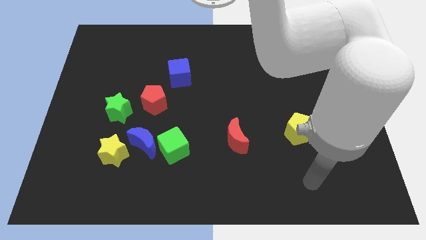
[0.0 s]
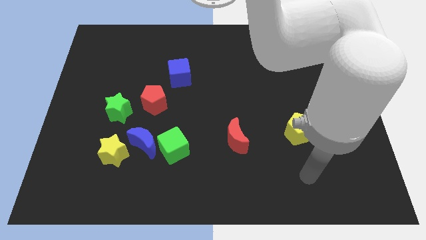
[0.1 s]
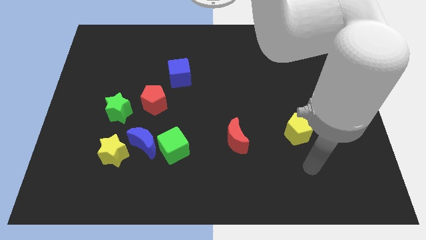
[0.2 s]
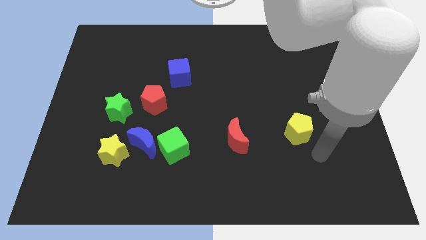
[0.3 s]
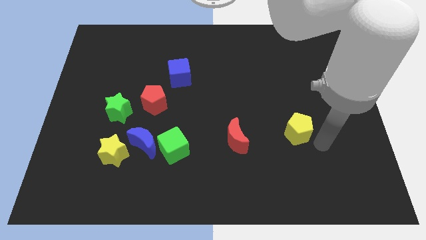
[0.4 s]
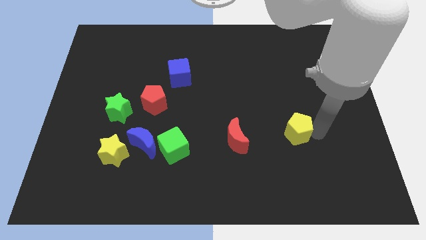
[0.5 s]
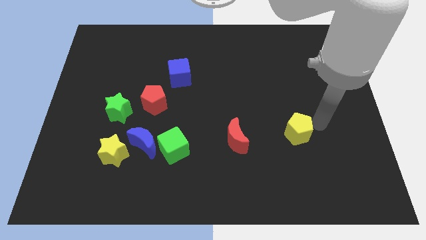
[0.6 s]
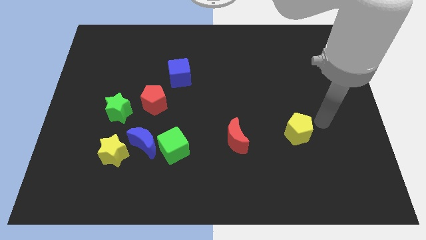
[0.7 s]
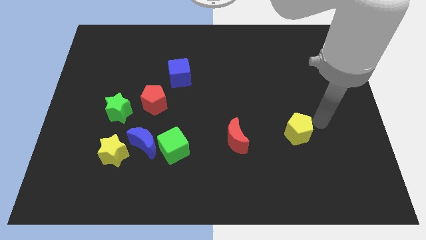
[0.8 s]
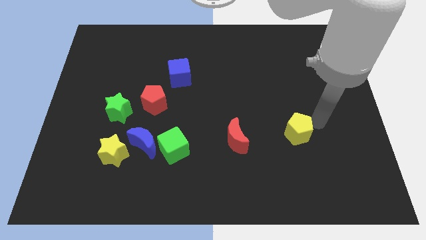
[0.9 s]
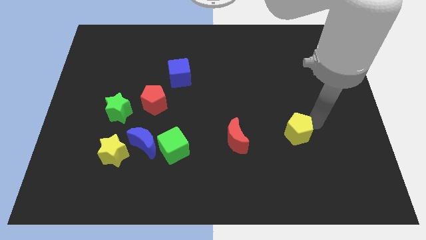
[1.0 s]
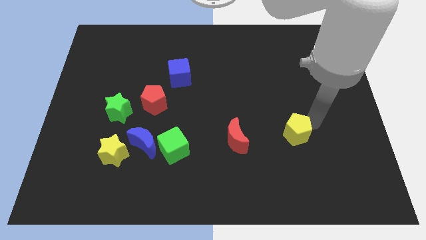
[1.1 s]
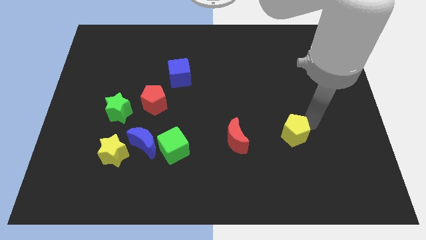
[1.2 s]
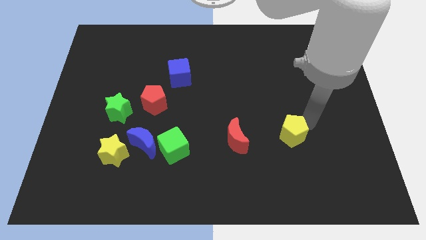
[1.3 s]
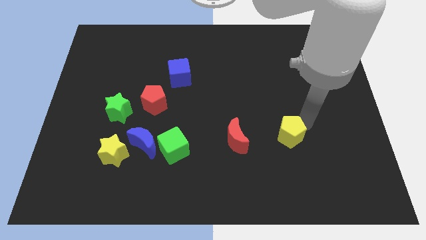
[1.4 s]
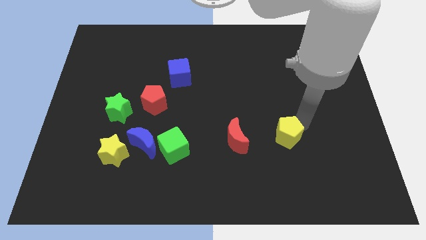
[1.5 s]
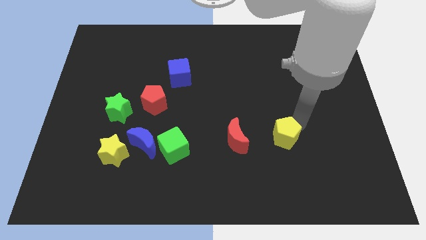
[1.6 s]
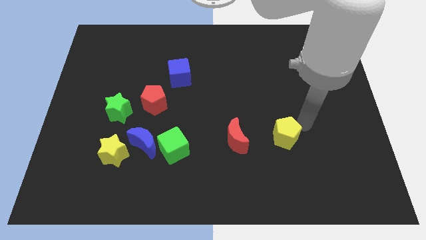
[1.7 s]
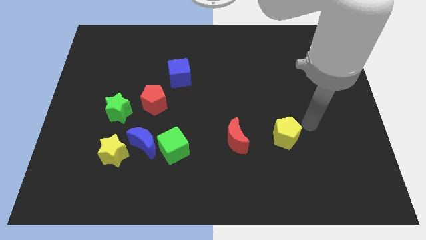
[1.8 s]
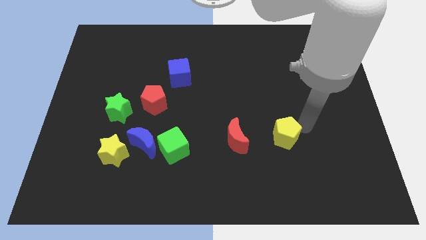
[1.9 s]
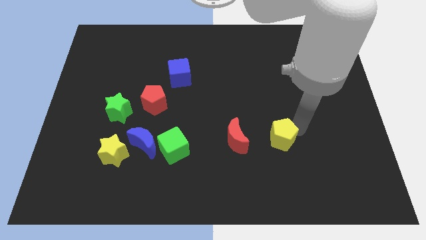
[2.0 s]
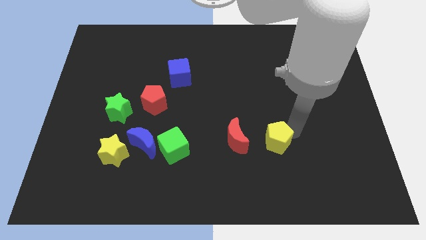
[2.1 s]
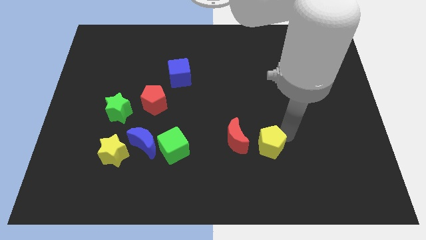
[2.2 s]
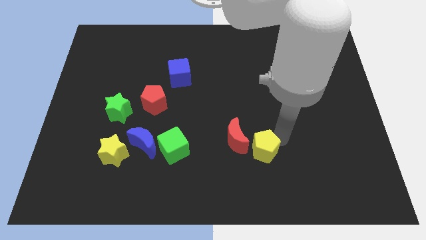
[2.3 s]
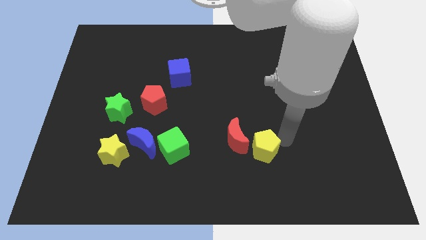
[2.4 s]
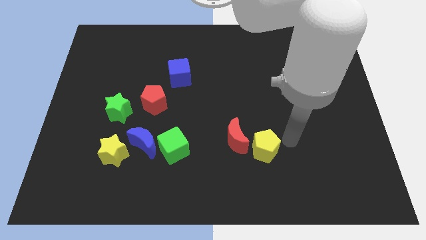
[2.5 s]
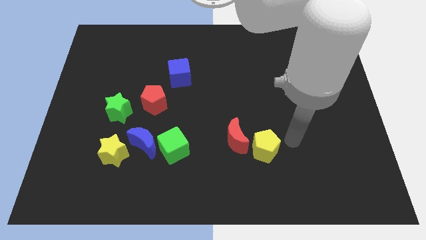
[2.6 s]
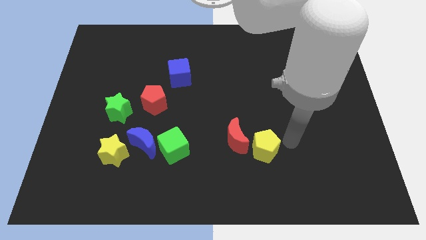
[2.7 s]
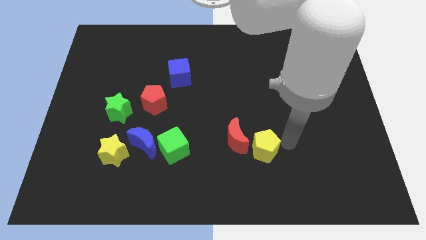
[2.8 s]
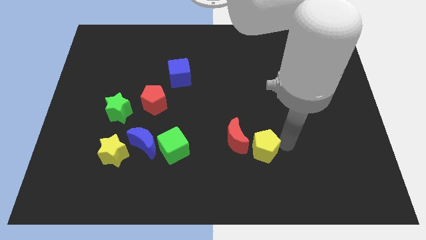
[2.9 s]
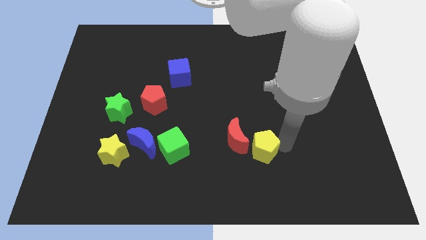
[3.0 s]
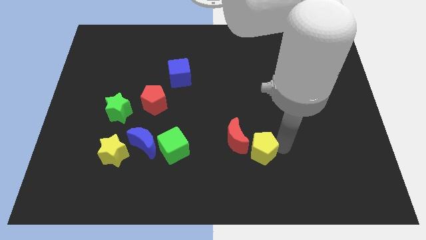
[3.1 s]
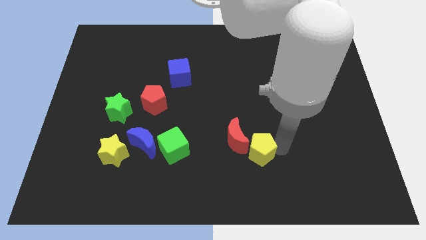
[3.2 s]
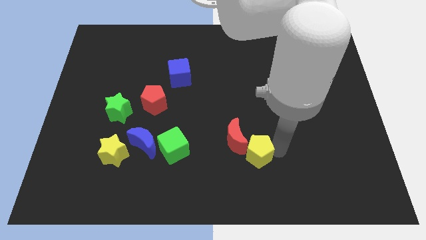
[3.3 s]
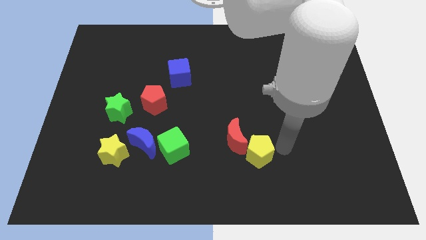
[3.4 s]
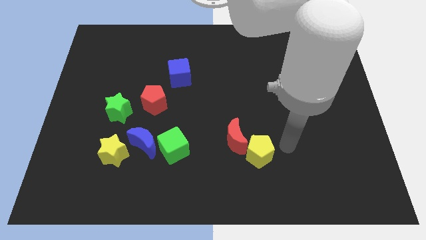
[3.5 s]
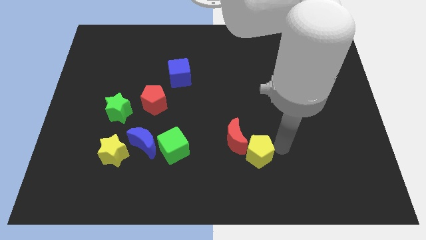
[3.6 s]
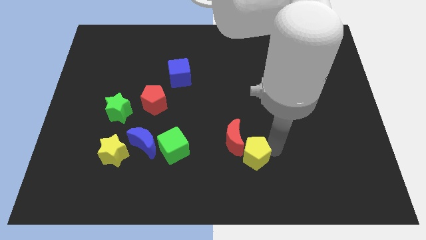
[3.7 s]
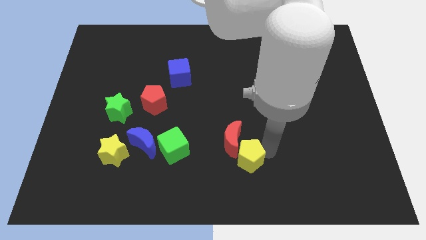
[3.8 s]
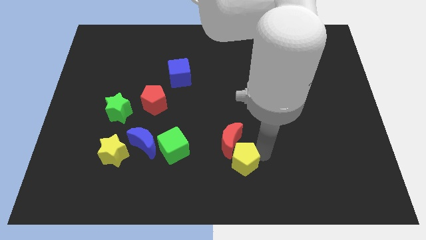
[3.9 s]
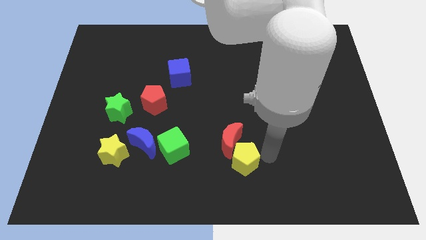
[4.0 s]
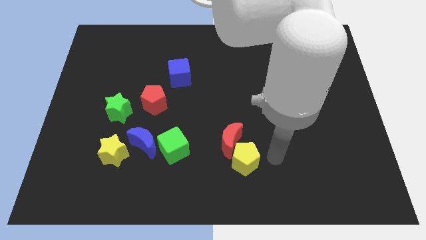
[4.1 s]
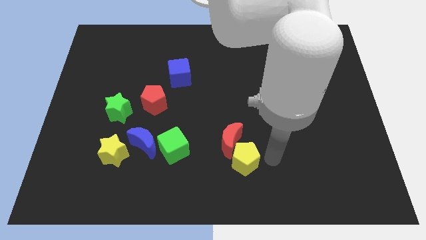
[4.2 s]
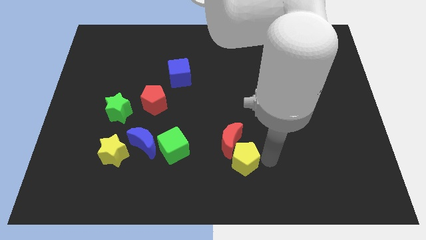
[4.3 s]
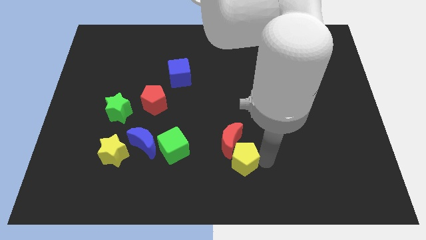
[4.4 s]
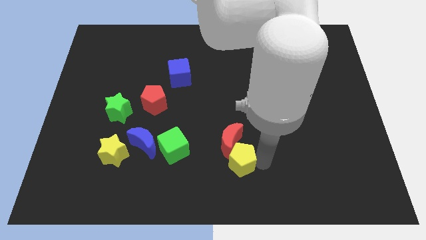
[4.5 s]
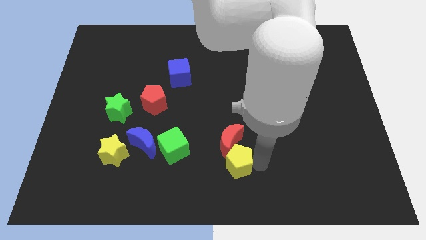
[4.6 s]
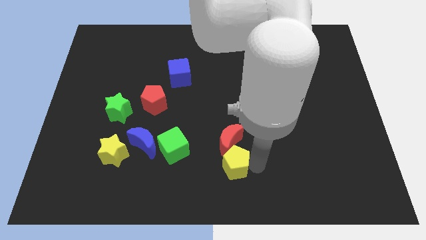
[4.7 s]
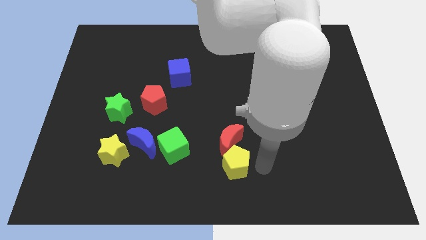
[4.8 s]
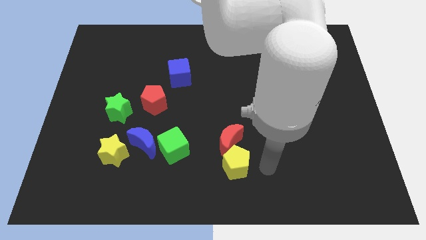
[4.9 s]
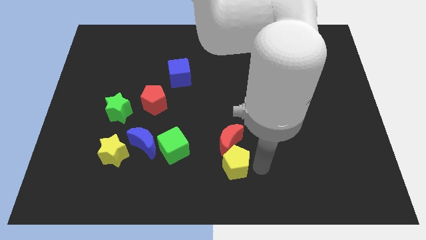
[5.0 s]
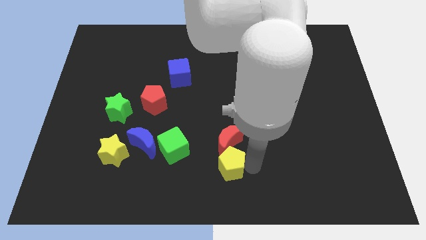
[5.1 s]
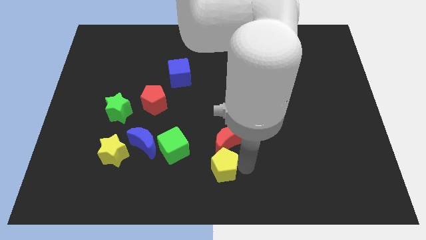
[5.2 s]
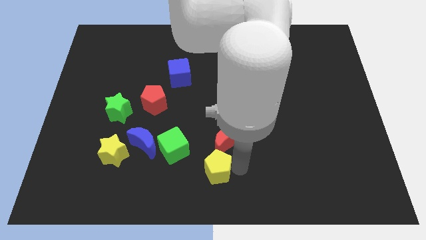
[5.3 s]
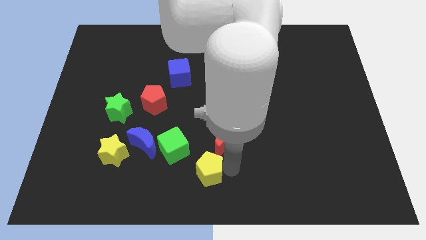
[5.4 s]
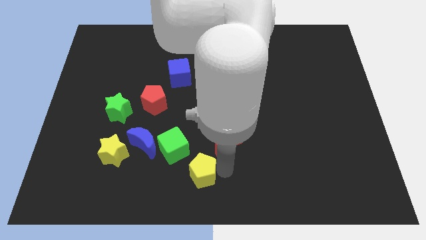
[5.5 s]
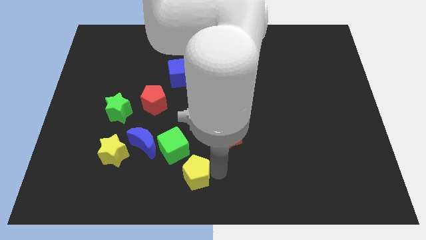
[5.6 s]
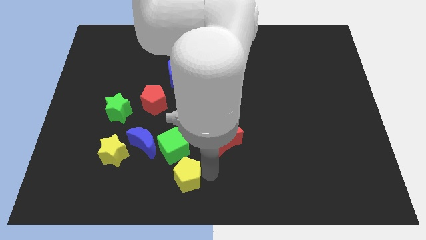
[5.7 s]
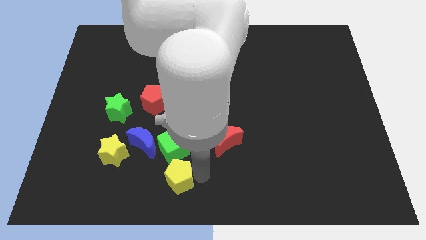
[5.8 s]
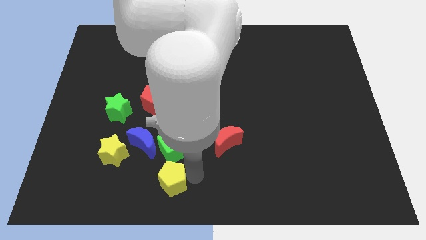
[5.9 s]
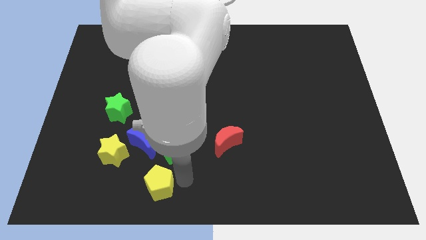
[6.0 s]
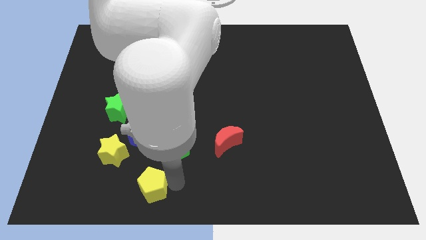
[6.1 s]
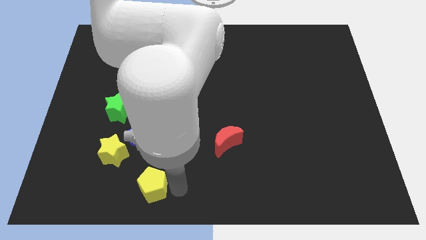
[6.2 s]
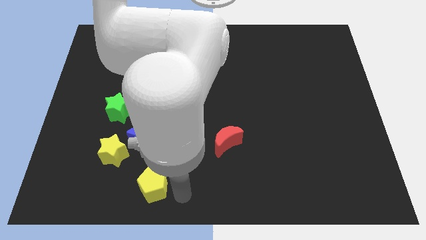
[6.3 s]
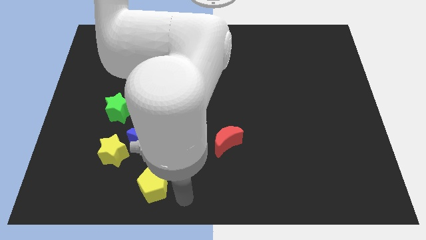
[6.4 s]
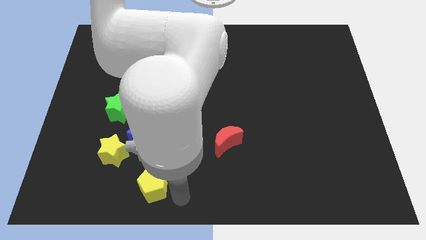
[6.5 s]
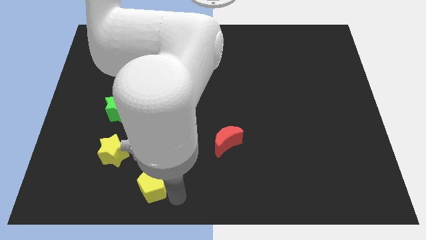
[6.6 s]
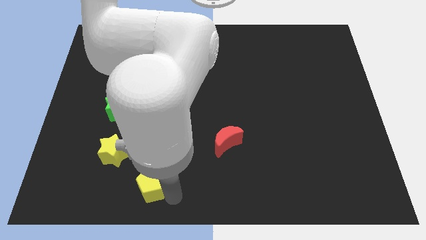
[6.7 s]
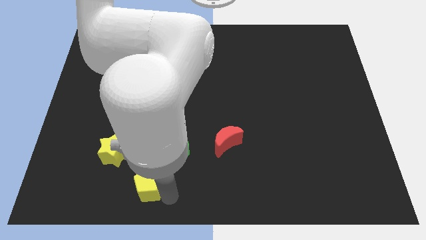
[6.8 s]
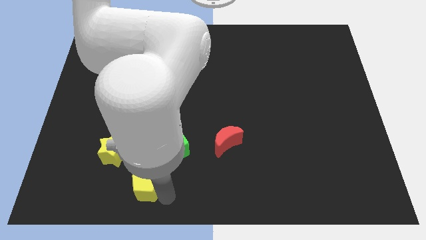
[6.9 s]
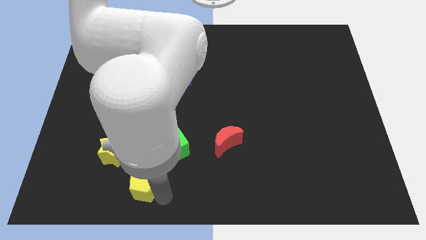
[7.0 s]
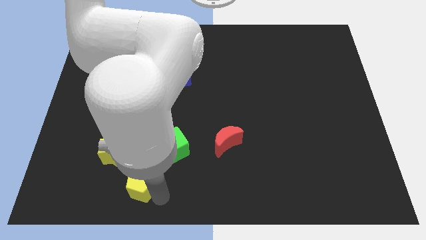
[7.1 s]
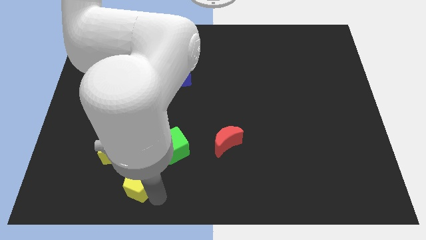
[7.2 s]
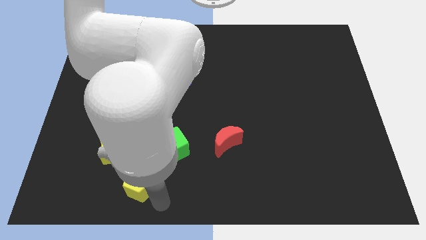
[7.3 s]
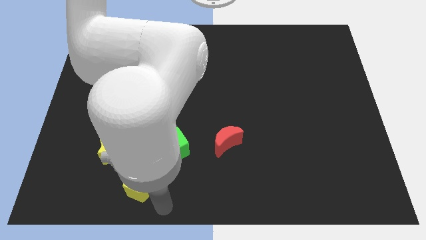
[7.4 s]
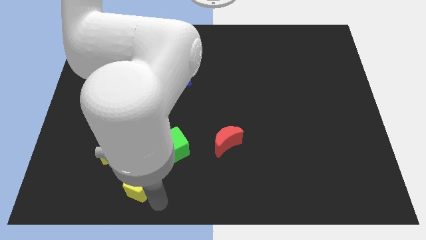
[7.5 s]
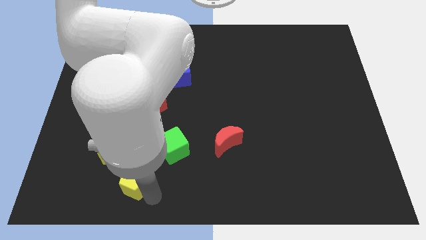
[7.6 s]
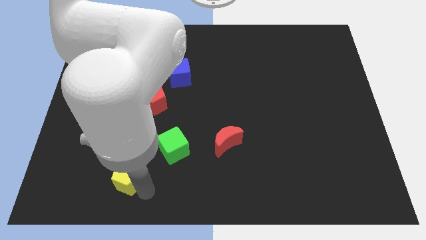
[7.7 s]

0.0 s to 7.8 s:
slide the yellow pentagon to the bottom left of the blue moon
